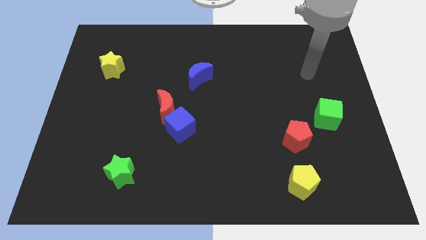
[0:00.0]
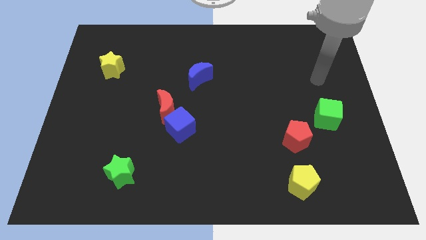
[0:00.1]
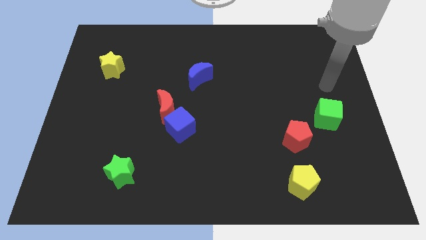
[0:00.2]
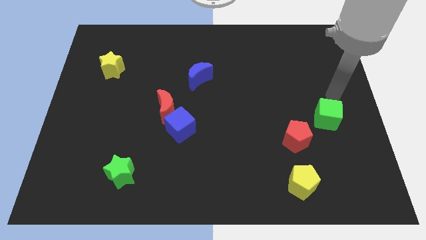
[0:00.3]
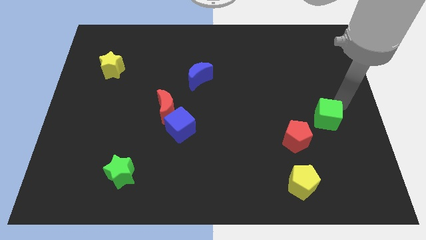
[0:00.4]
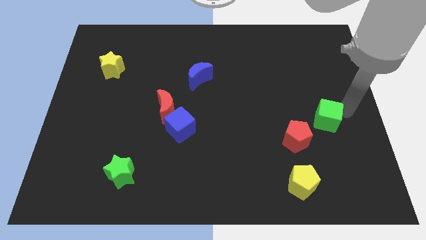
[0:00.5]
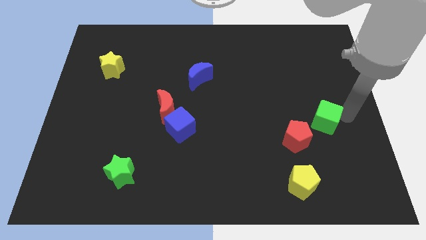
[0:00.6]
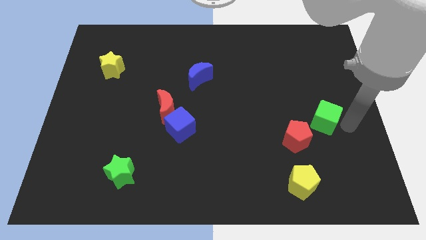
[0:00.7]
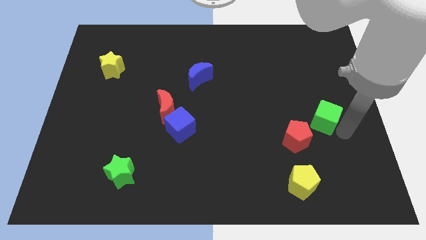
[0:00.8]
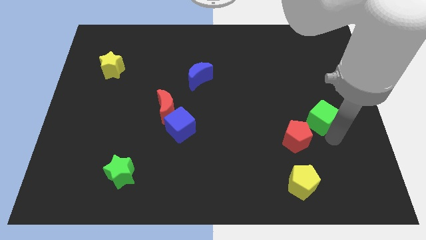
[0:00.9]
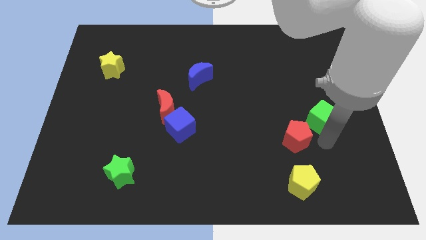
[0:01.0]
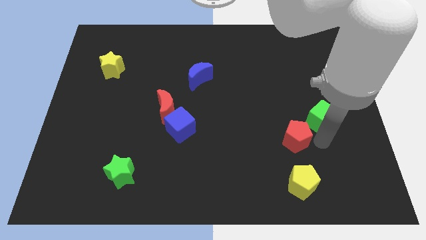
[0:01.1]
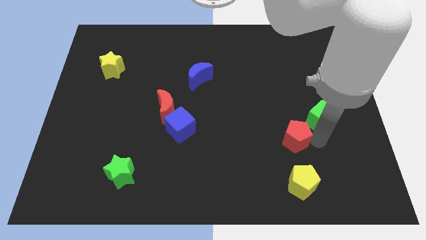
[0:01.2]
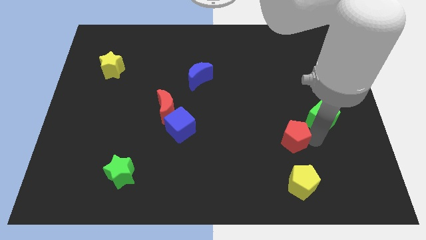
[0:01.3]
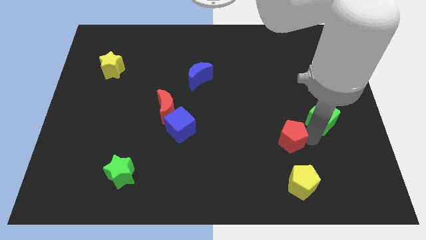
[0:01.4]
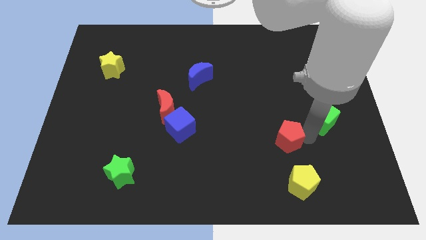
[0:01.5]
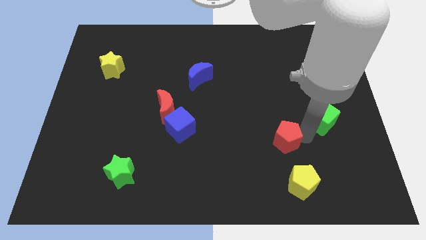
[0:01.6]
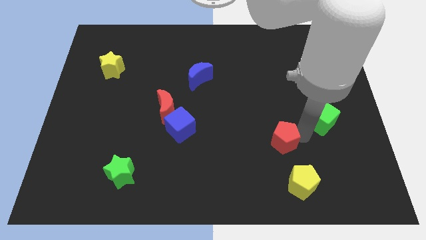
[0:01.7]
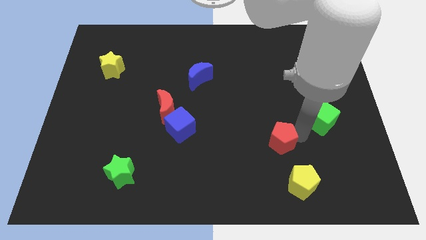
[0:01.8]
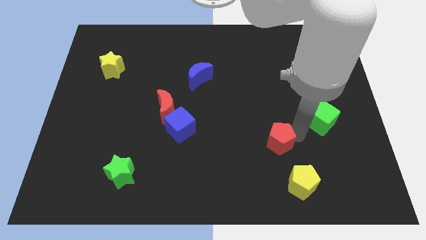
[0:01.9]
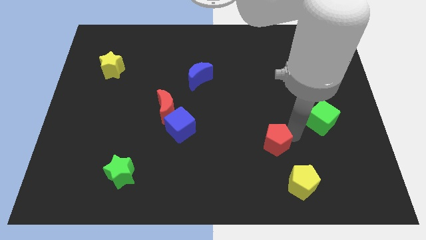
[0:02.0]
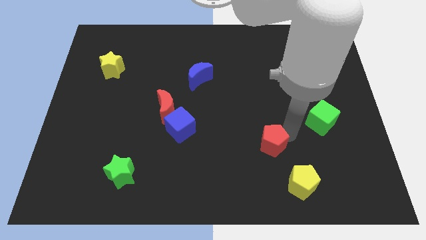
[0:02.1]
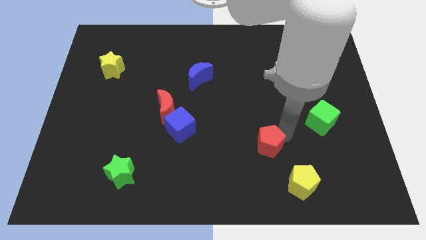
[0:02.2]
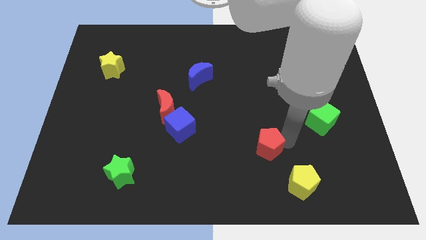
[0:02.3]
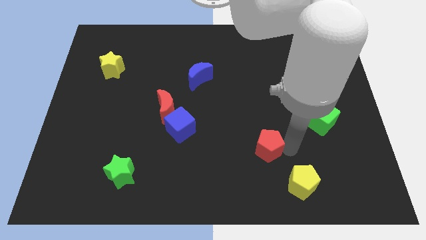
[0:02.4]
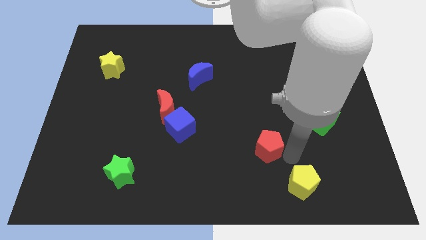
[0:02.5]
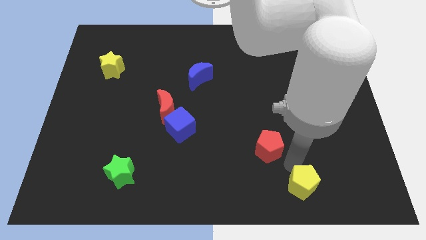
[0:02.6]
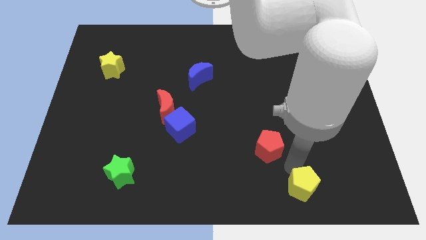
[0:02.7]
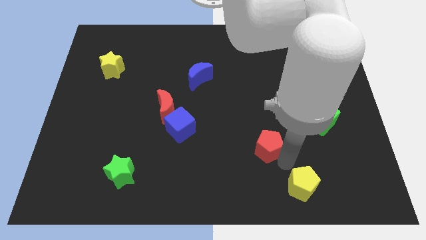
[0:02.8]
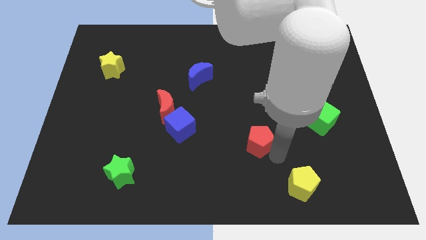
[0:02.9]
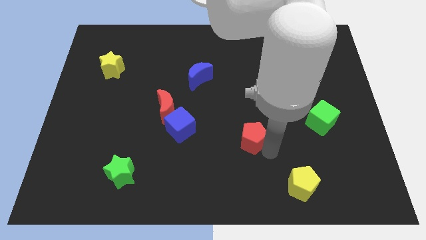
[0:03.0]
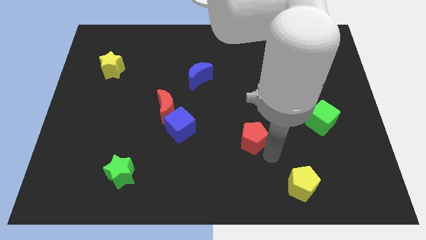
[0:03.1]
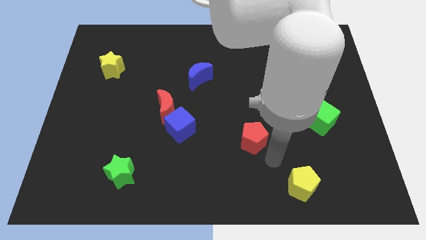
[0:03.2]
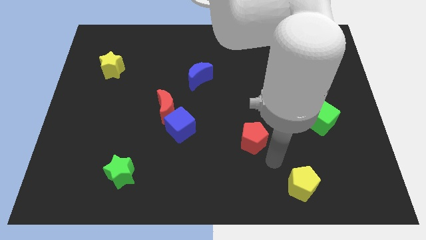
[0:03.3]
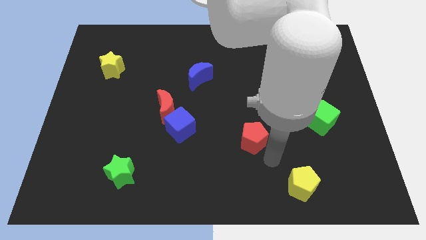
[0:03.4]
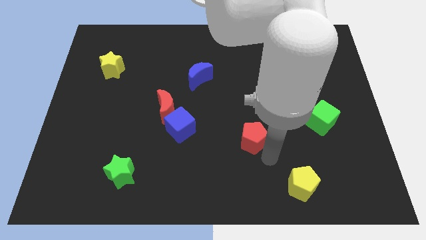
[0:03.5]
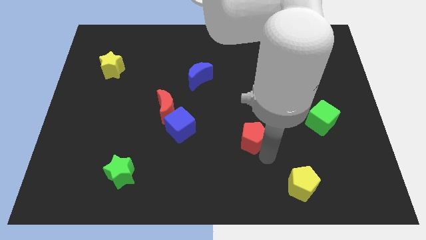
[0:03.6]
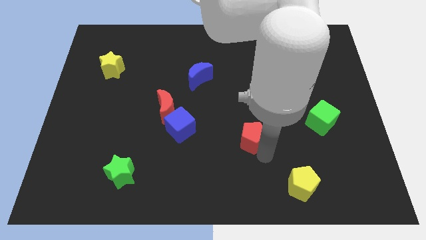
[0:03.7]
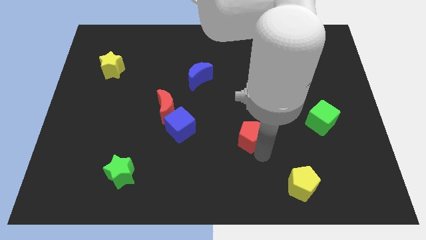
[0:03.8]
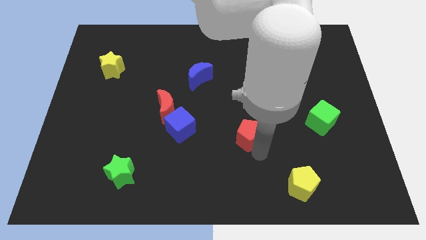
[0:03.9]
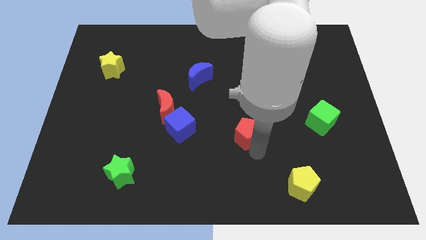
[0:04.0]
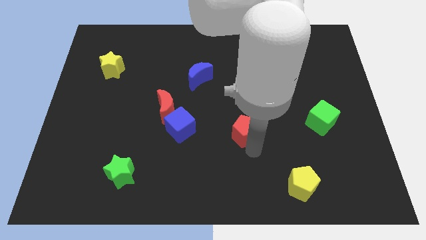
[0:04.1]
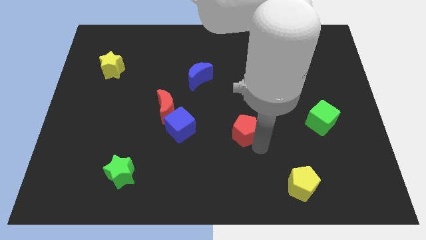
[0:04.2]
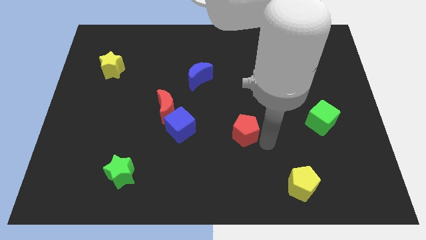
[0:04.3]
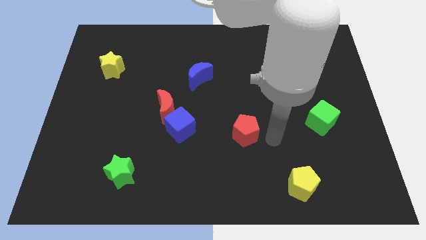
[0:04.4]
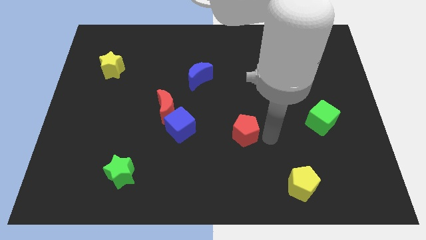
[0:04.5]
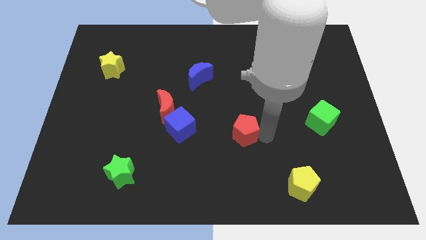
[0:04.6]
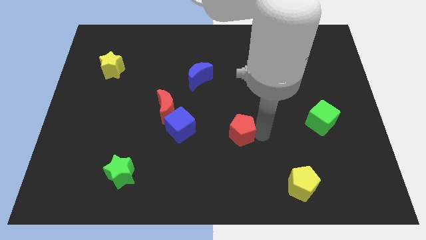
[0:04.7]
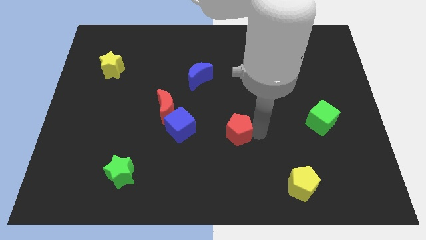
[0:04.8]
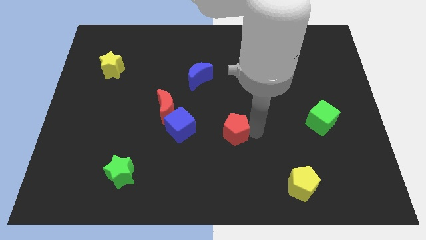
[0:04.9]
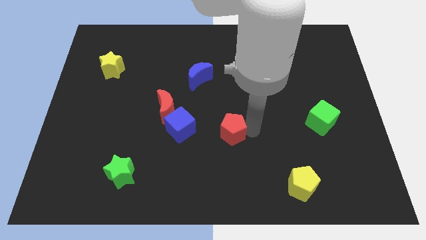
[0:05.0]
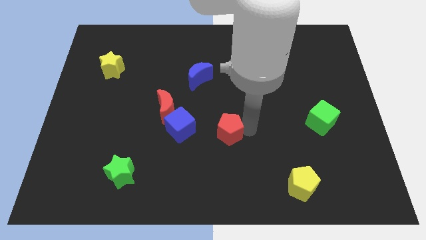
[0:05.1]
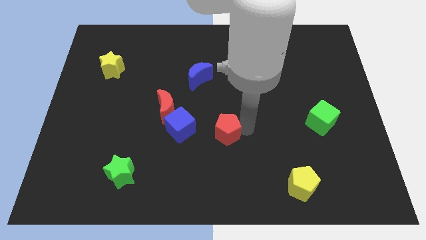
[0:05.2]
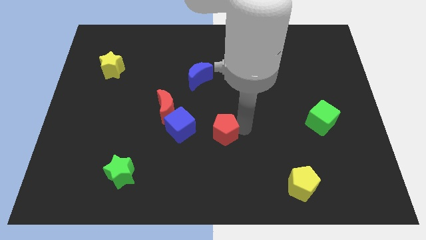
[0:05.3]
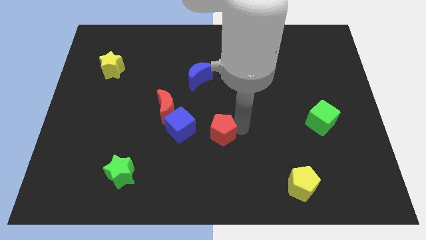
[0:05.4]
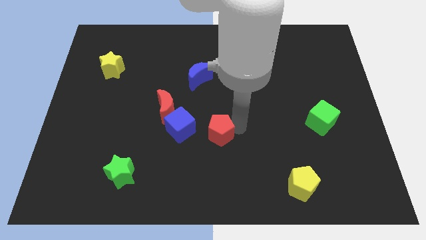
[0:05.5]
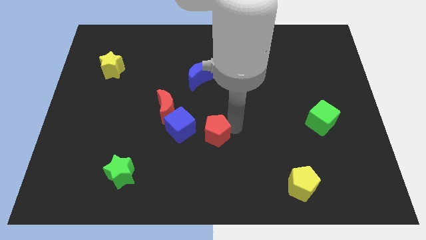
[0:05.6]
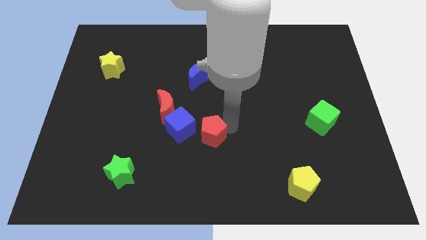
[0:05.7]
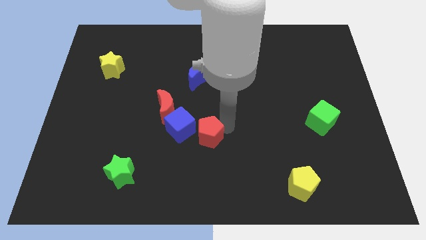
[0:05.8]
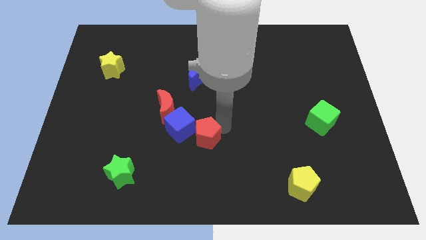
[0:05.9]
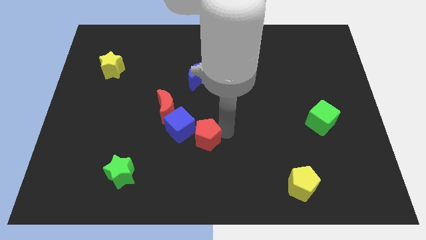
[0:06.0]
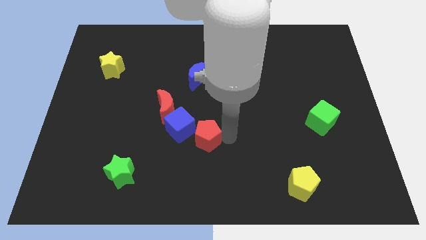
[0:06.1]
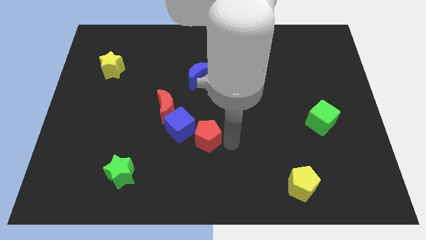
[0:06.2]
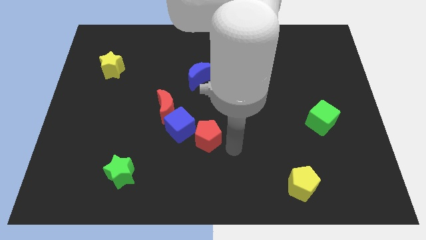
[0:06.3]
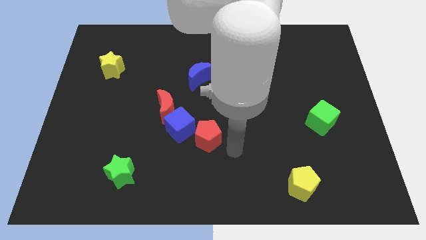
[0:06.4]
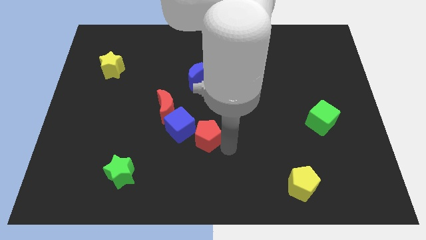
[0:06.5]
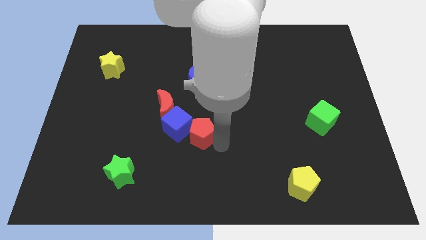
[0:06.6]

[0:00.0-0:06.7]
slide the red pentagon next to the blue cube
